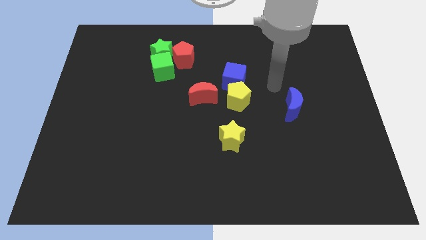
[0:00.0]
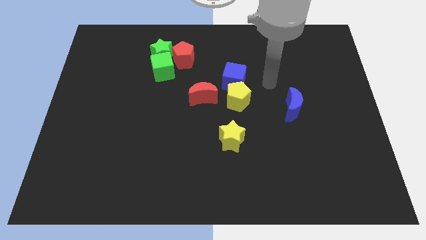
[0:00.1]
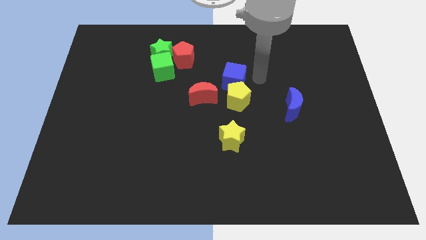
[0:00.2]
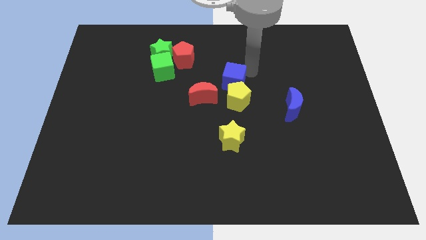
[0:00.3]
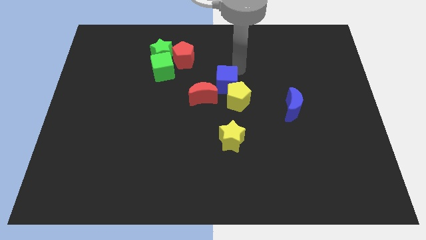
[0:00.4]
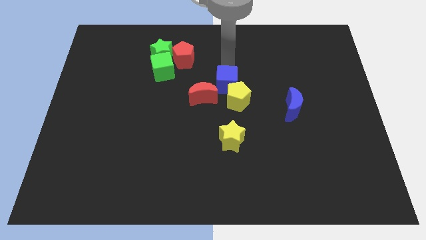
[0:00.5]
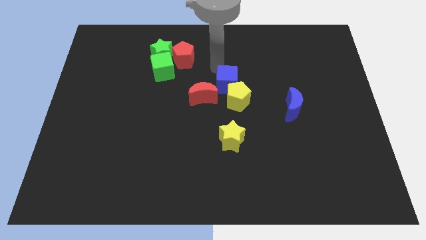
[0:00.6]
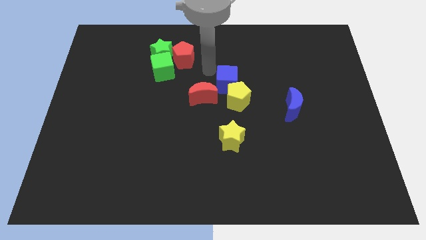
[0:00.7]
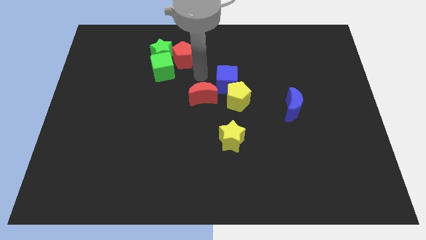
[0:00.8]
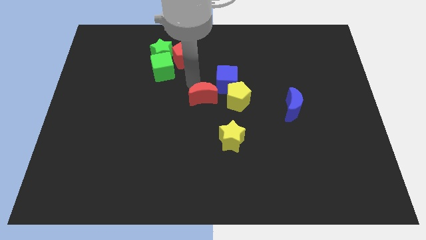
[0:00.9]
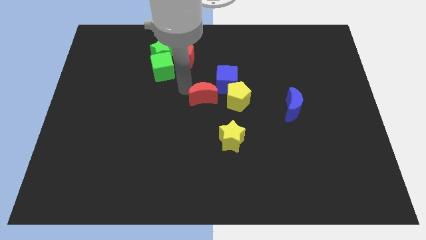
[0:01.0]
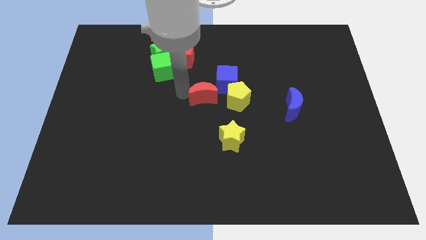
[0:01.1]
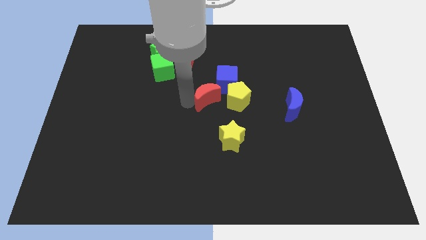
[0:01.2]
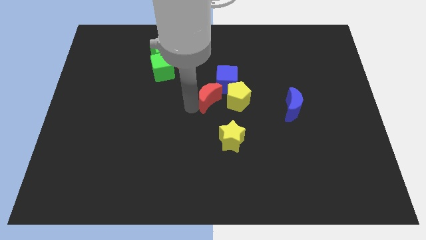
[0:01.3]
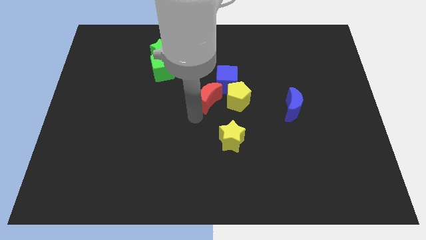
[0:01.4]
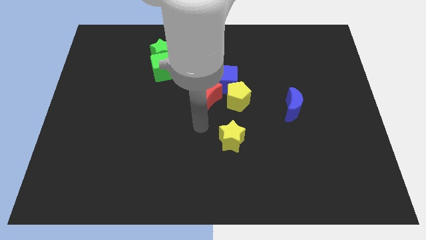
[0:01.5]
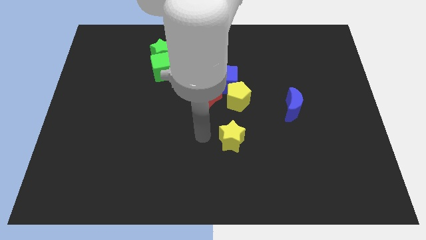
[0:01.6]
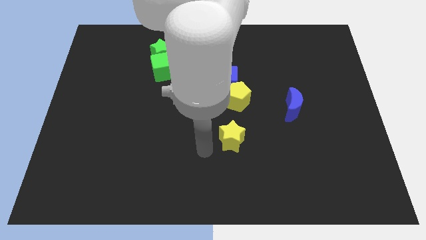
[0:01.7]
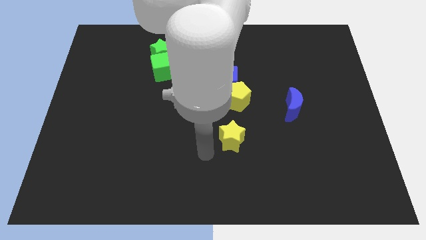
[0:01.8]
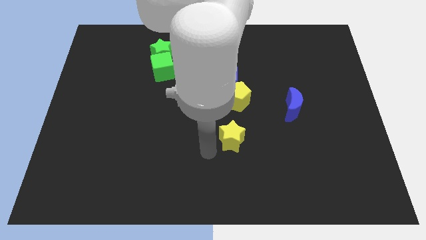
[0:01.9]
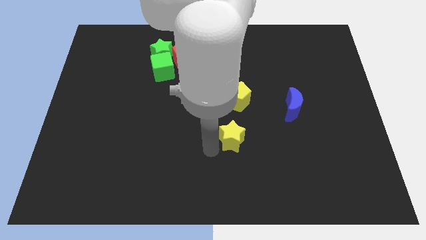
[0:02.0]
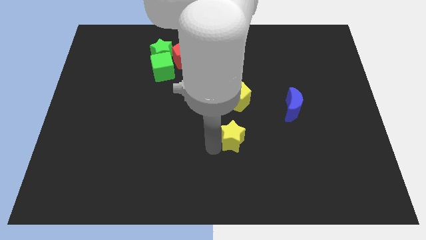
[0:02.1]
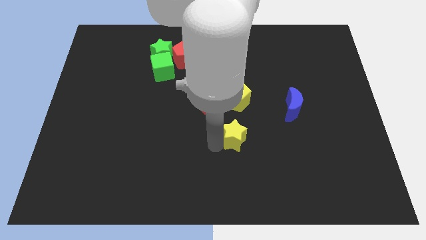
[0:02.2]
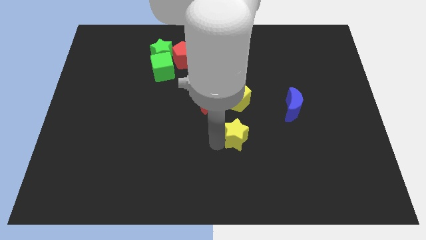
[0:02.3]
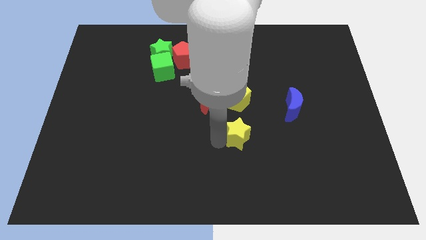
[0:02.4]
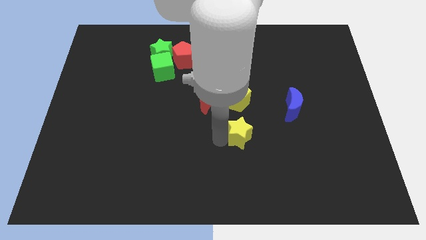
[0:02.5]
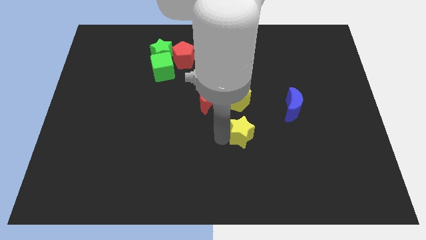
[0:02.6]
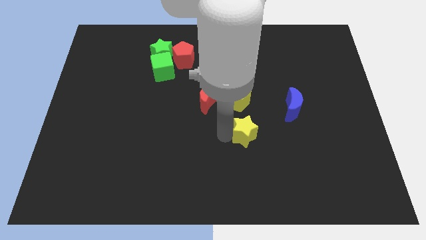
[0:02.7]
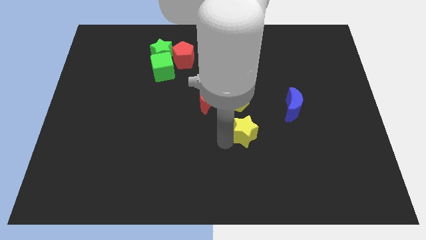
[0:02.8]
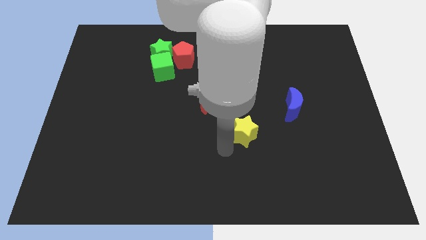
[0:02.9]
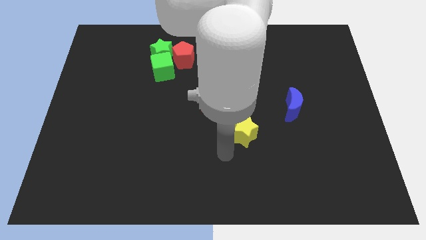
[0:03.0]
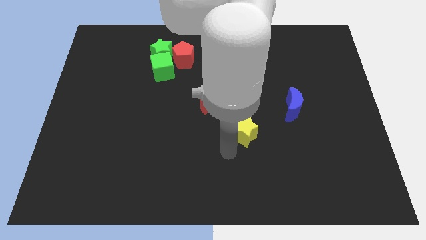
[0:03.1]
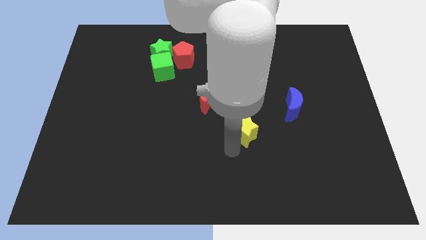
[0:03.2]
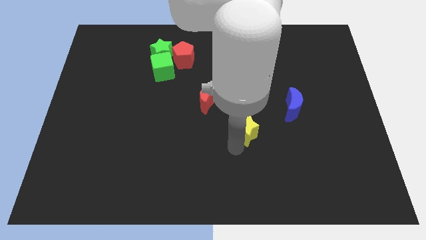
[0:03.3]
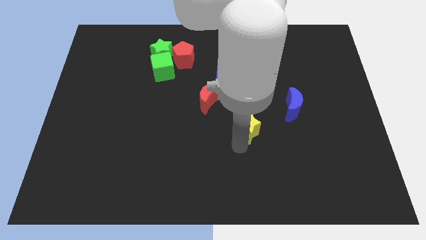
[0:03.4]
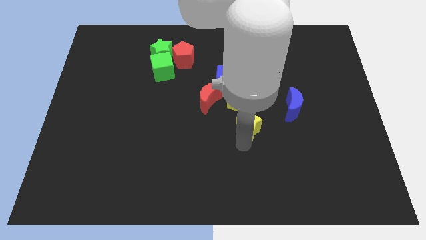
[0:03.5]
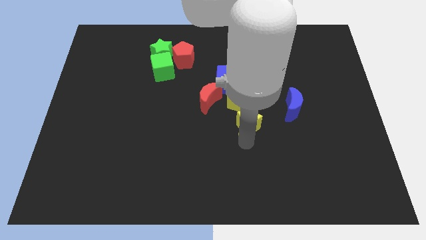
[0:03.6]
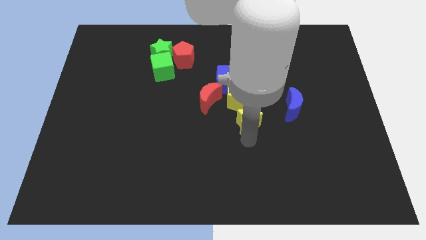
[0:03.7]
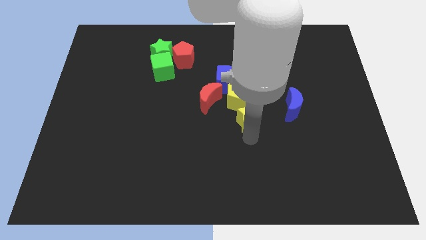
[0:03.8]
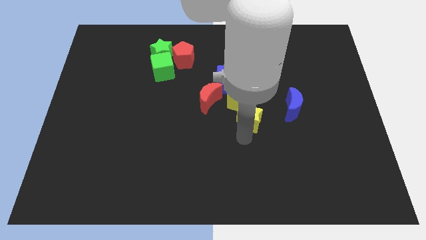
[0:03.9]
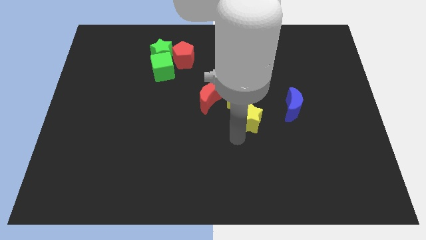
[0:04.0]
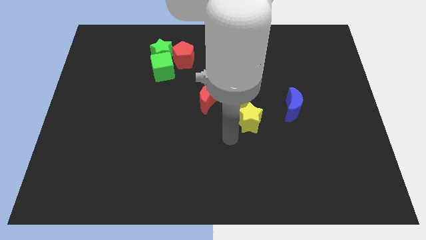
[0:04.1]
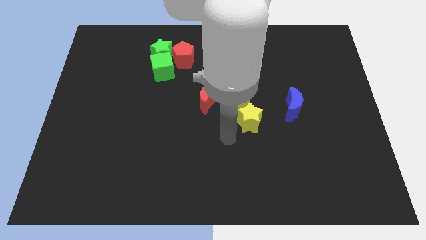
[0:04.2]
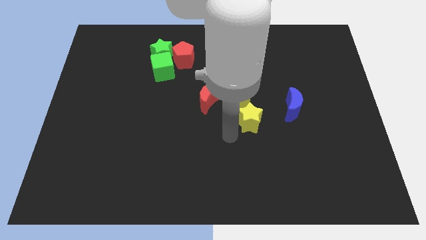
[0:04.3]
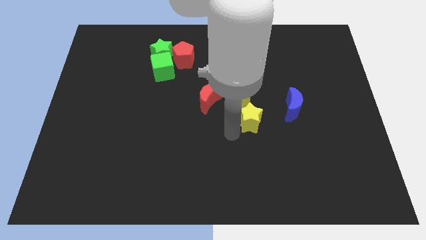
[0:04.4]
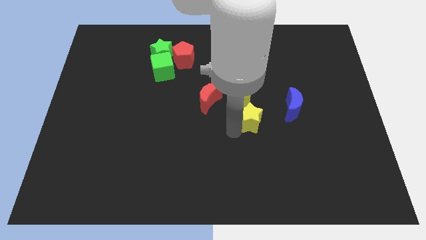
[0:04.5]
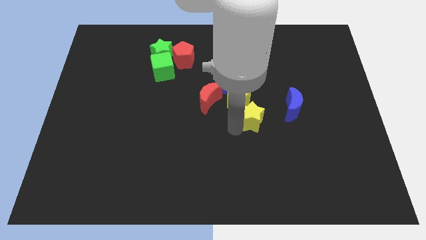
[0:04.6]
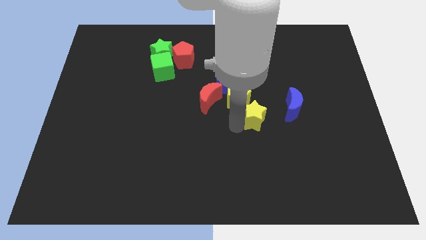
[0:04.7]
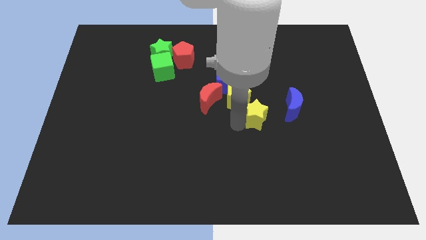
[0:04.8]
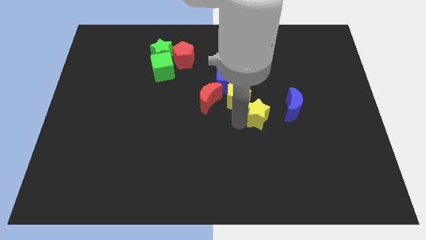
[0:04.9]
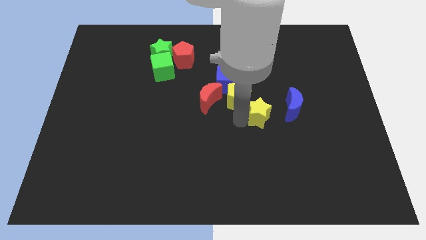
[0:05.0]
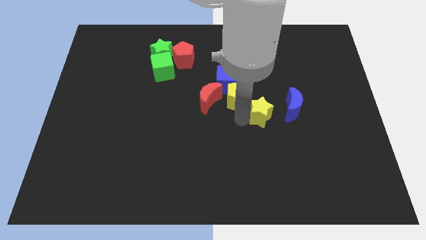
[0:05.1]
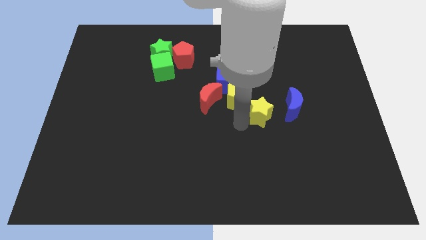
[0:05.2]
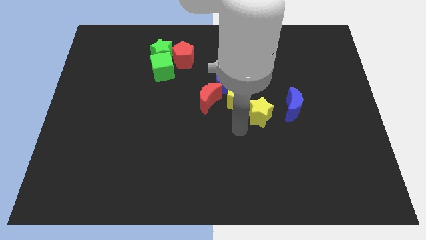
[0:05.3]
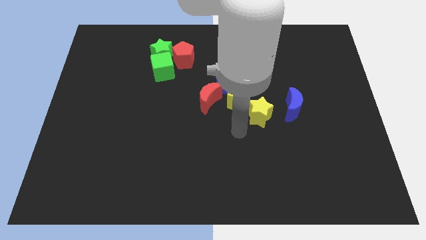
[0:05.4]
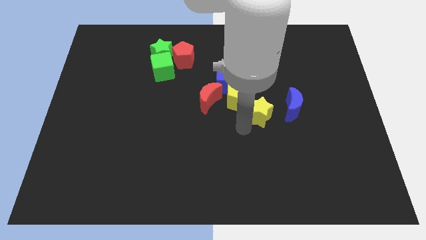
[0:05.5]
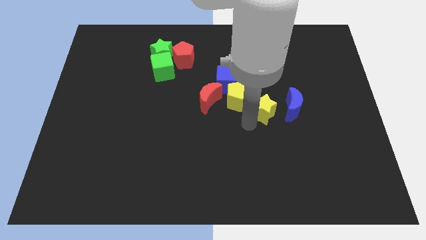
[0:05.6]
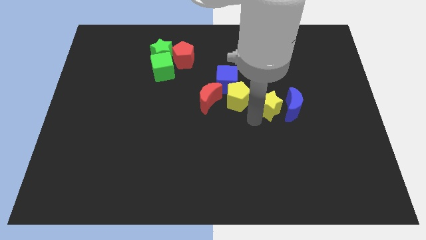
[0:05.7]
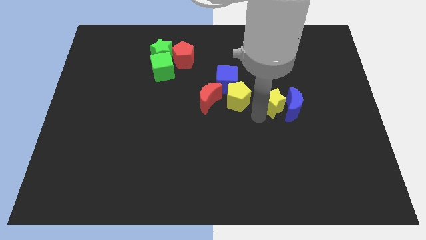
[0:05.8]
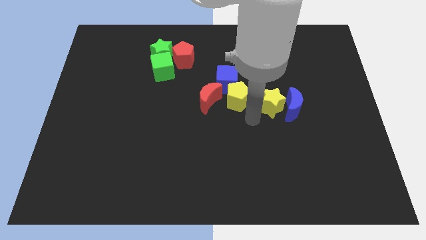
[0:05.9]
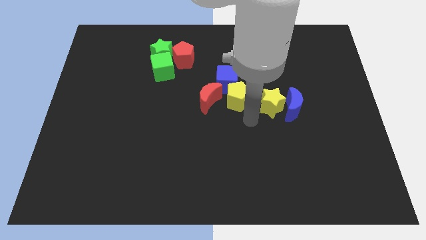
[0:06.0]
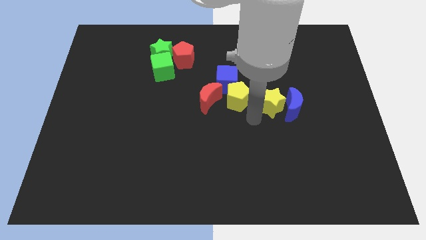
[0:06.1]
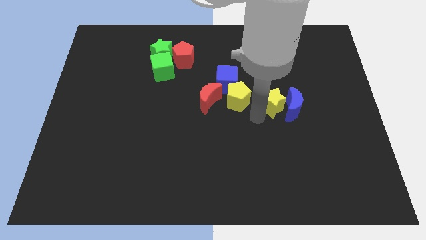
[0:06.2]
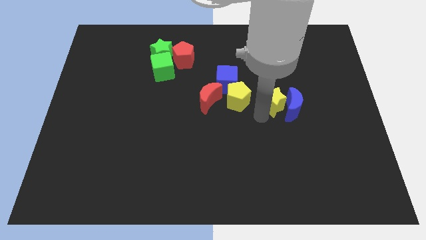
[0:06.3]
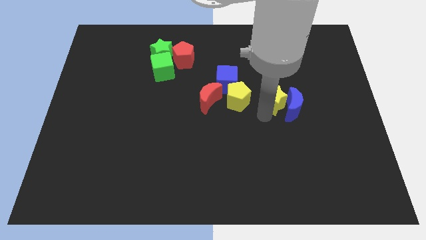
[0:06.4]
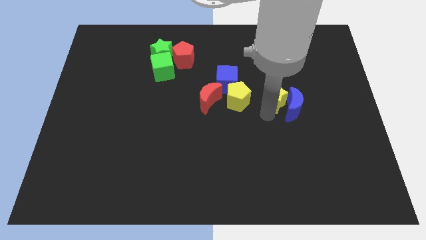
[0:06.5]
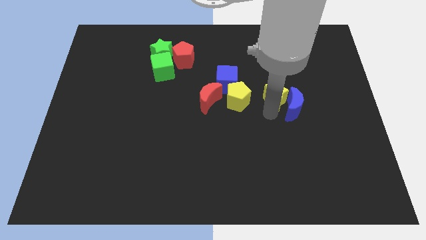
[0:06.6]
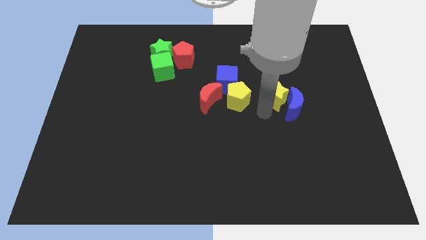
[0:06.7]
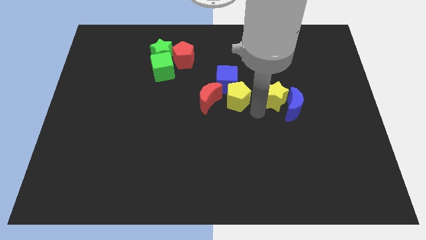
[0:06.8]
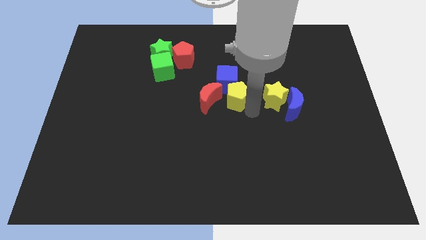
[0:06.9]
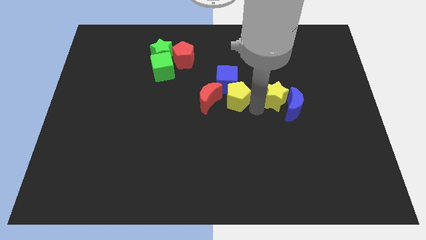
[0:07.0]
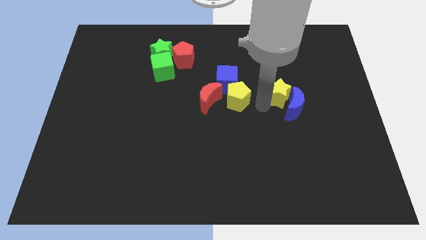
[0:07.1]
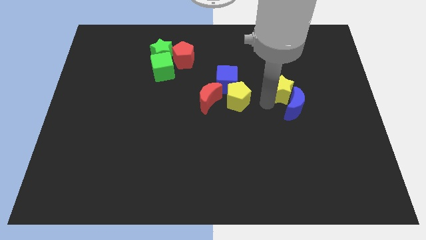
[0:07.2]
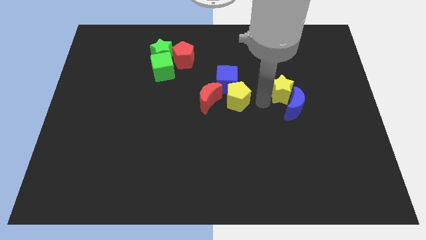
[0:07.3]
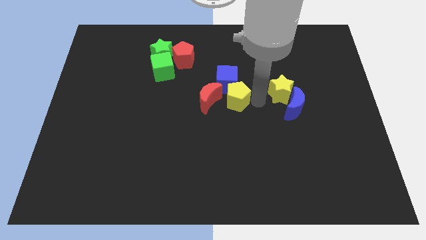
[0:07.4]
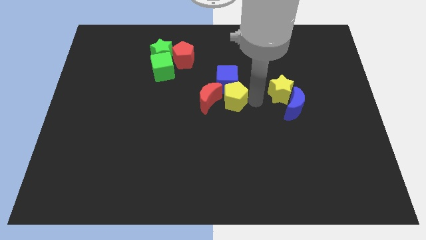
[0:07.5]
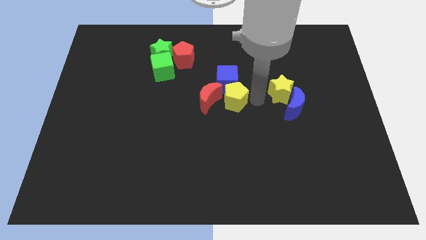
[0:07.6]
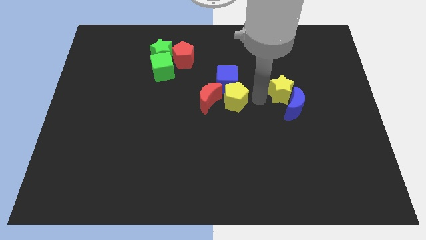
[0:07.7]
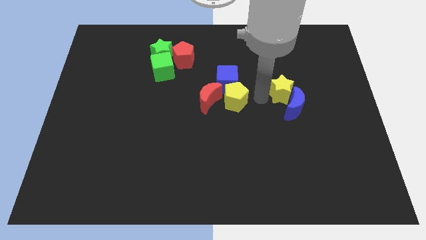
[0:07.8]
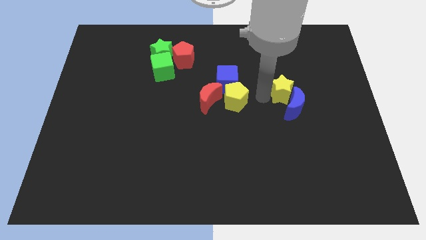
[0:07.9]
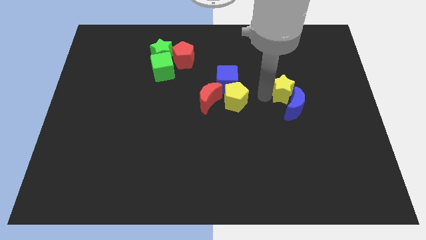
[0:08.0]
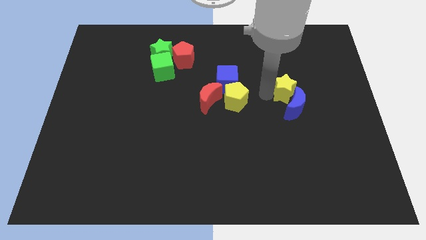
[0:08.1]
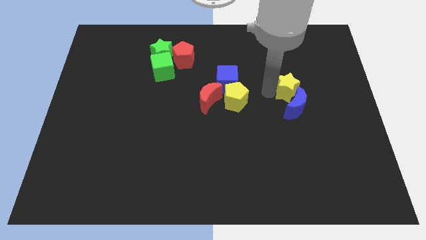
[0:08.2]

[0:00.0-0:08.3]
slide the yellow star up and right
